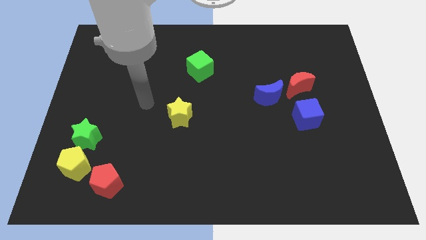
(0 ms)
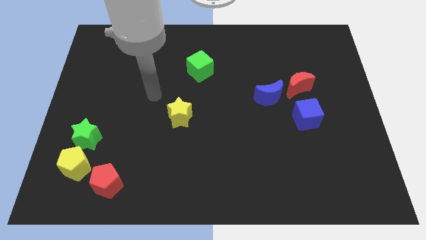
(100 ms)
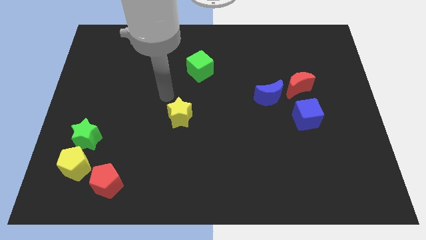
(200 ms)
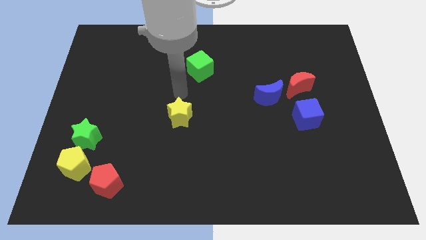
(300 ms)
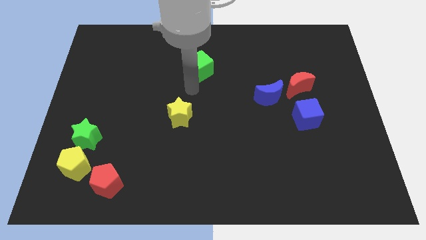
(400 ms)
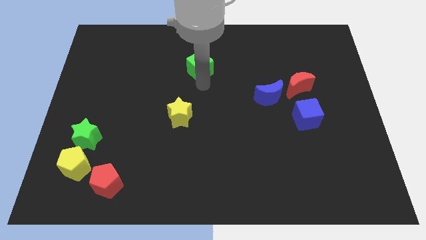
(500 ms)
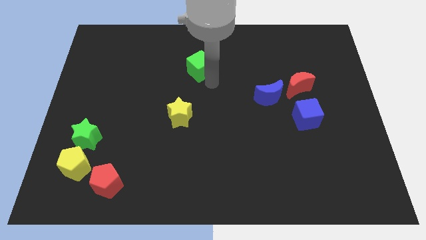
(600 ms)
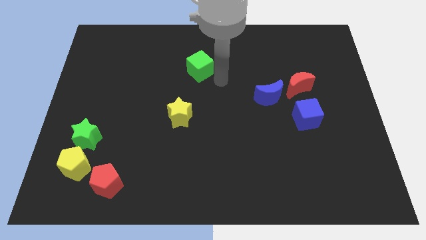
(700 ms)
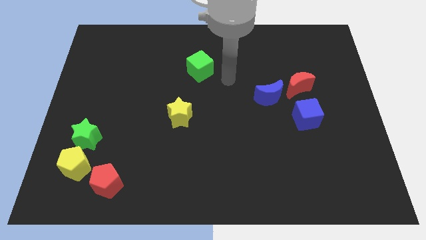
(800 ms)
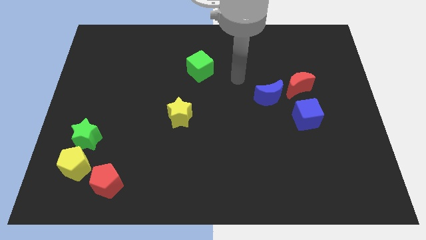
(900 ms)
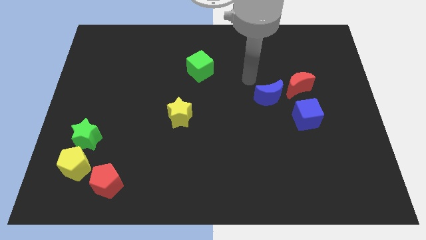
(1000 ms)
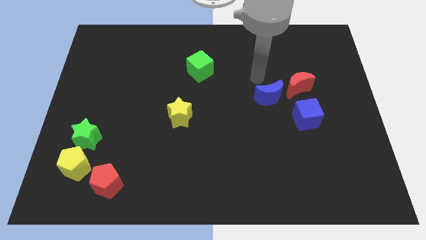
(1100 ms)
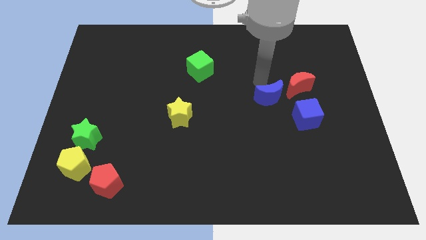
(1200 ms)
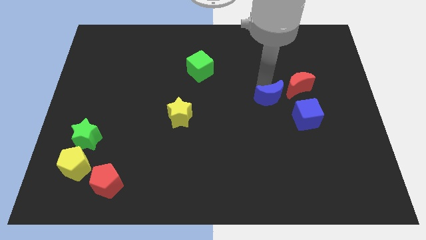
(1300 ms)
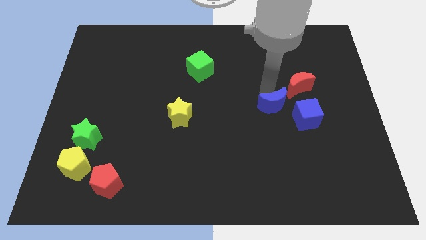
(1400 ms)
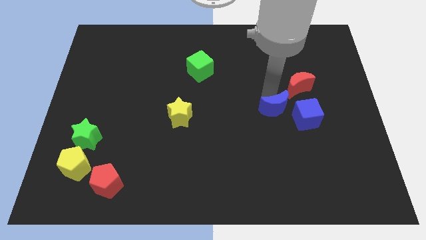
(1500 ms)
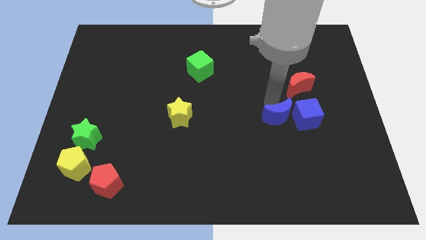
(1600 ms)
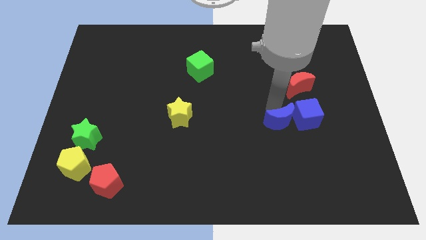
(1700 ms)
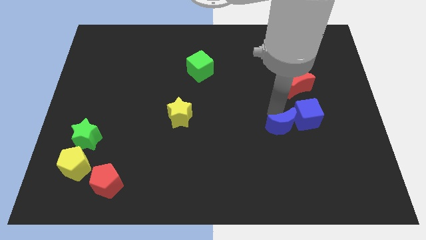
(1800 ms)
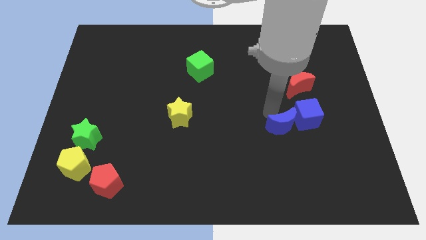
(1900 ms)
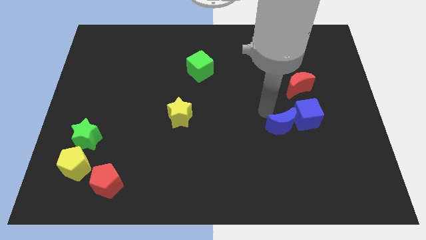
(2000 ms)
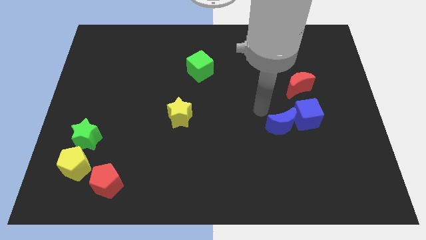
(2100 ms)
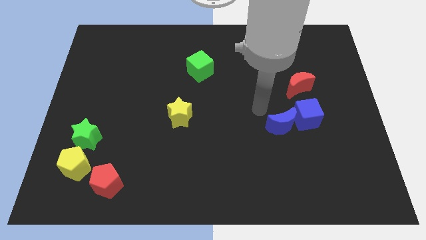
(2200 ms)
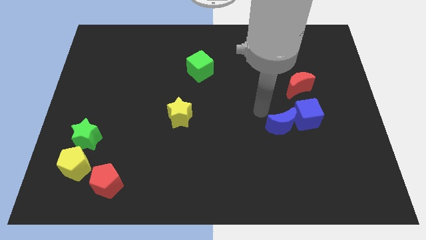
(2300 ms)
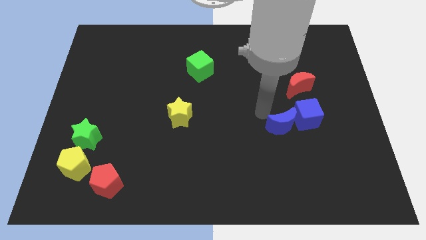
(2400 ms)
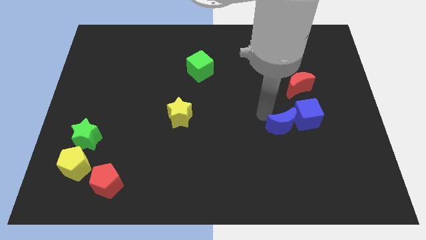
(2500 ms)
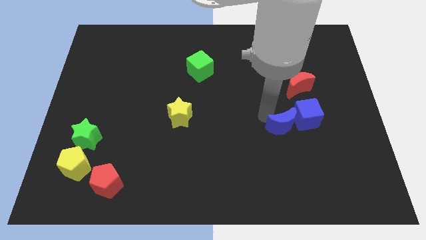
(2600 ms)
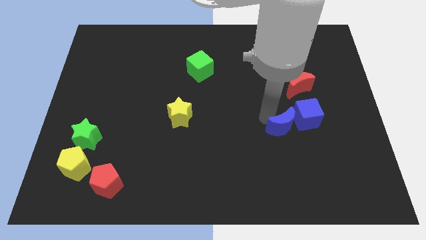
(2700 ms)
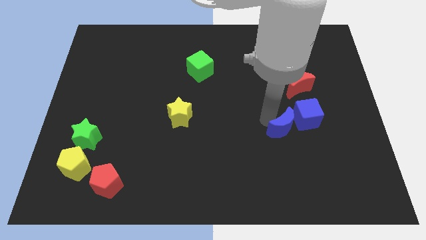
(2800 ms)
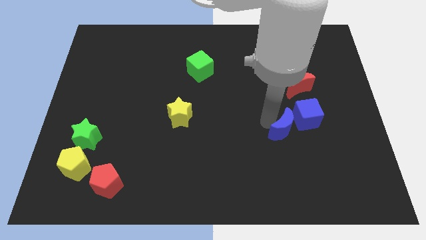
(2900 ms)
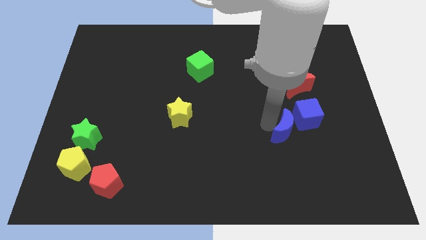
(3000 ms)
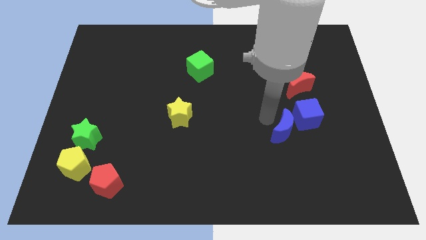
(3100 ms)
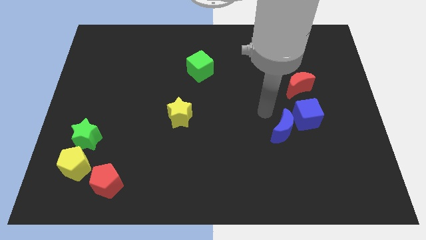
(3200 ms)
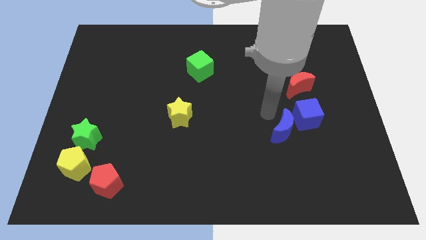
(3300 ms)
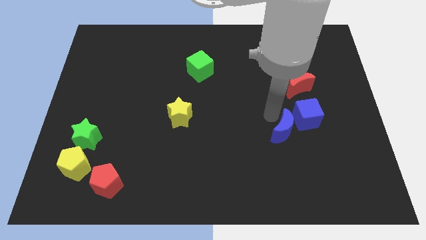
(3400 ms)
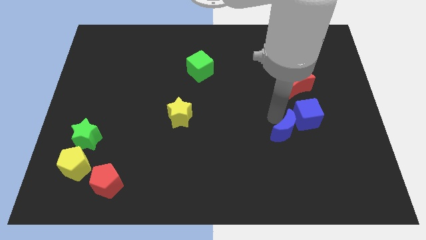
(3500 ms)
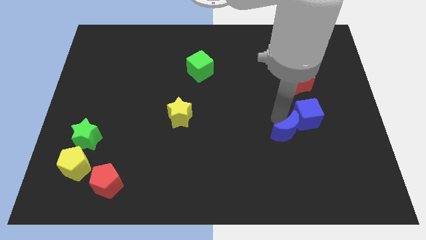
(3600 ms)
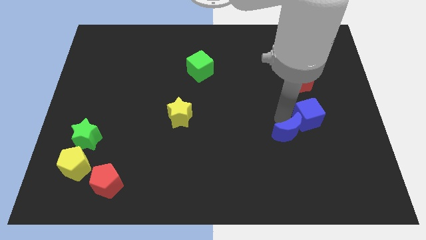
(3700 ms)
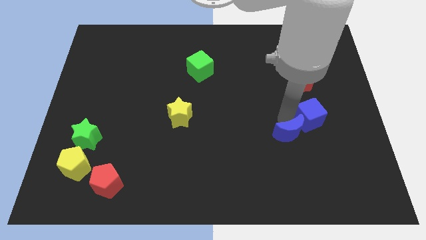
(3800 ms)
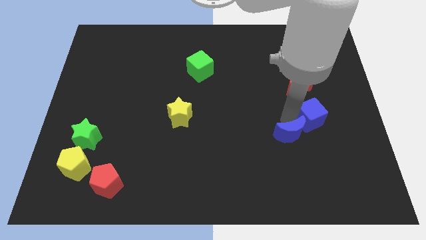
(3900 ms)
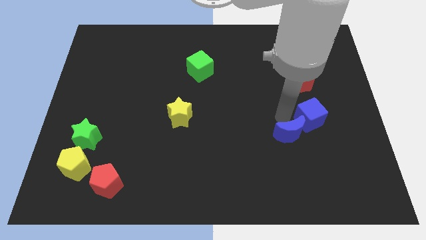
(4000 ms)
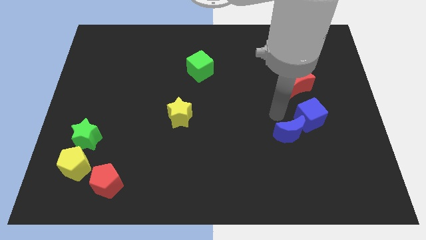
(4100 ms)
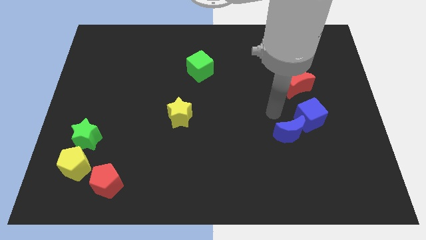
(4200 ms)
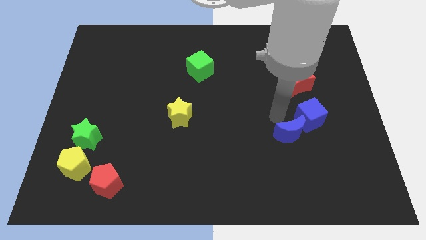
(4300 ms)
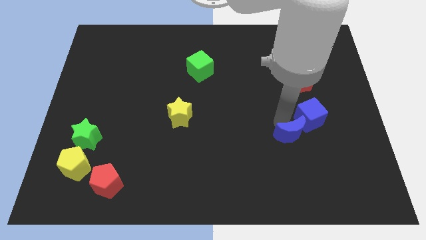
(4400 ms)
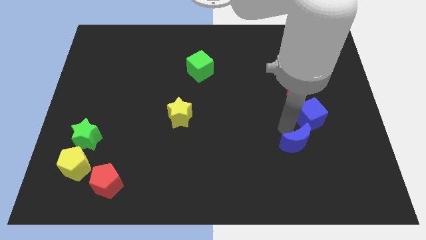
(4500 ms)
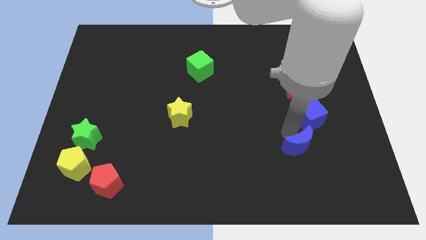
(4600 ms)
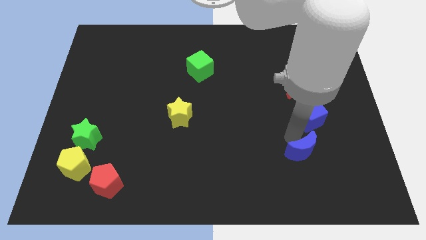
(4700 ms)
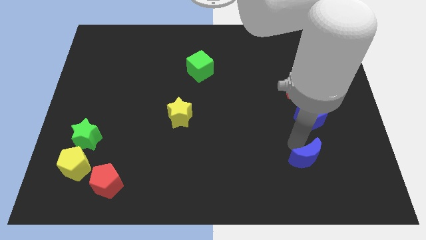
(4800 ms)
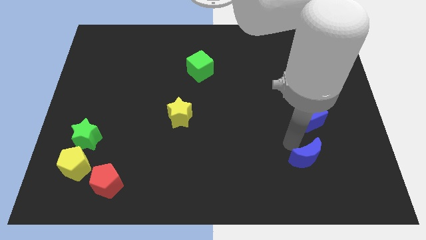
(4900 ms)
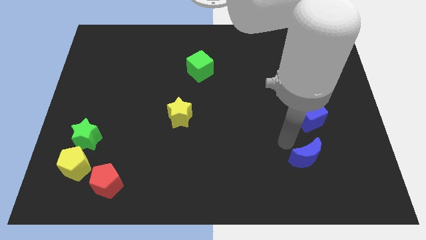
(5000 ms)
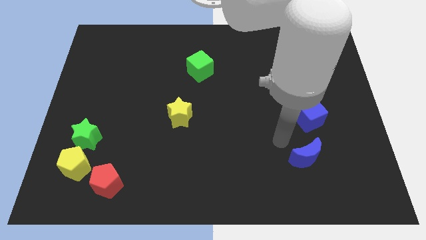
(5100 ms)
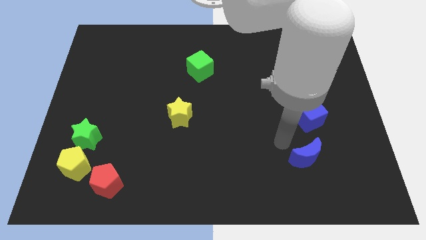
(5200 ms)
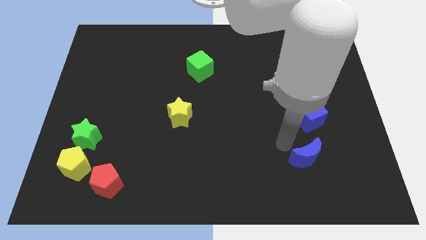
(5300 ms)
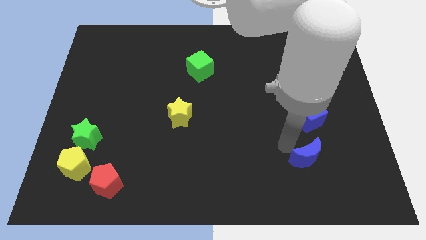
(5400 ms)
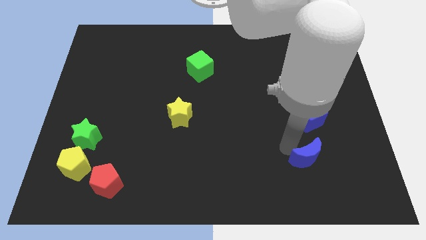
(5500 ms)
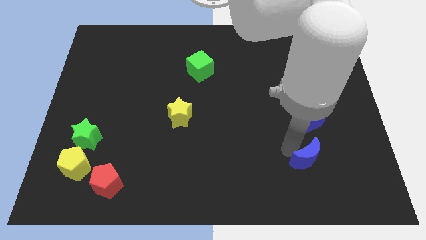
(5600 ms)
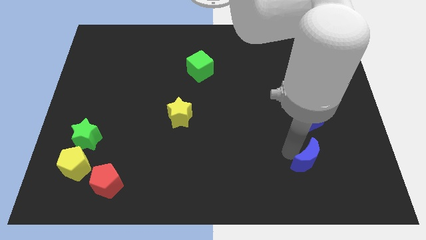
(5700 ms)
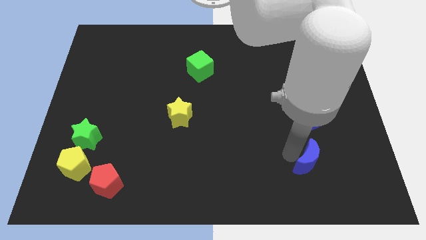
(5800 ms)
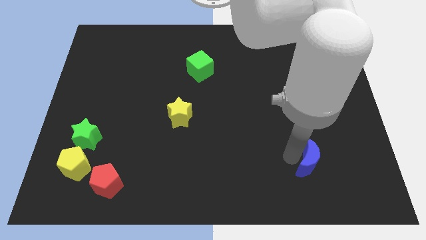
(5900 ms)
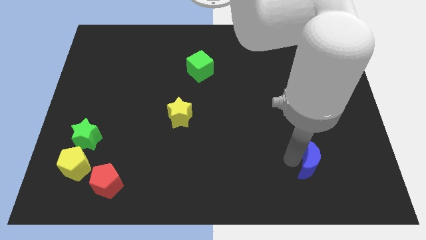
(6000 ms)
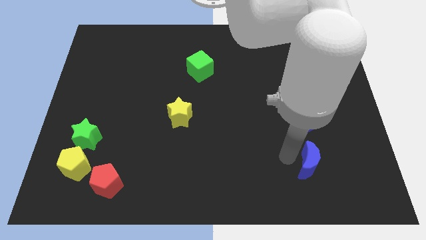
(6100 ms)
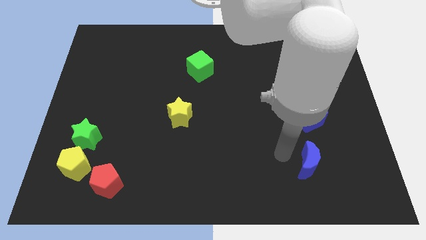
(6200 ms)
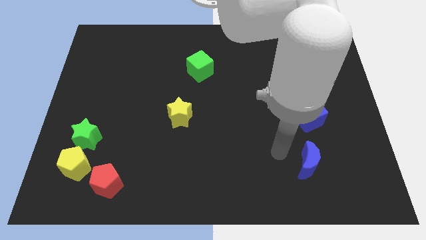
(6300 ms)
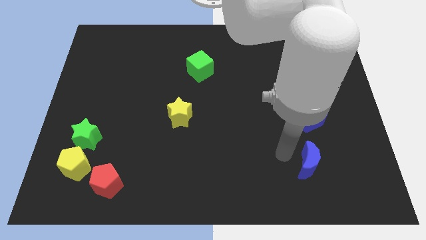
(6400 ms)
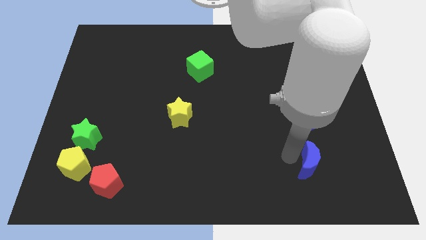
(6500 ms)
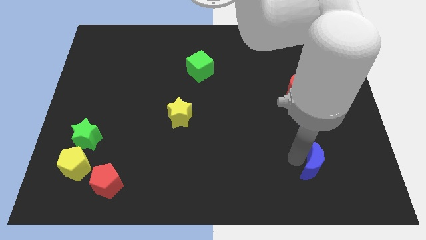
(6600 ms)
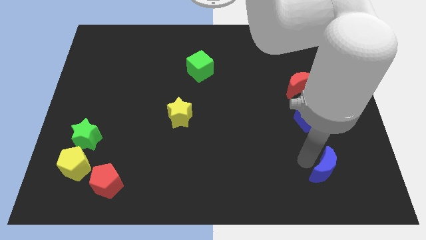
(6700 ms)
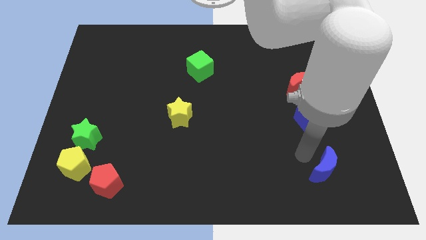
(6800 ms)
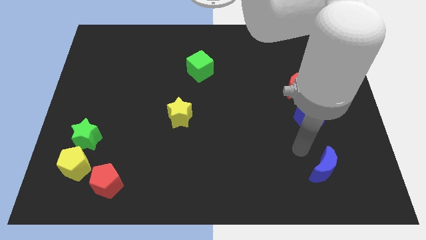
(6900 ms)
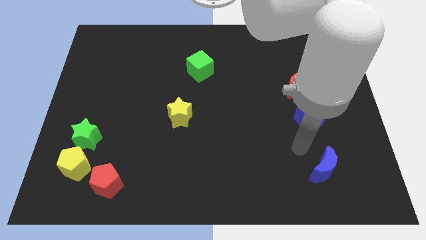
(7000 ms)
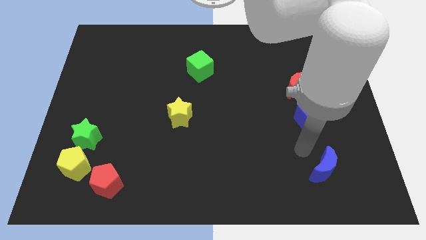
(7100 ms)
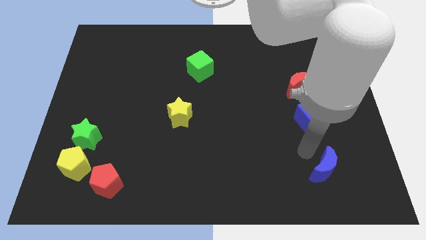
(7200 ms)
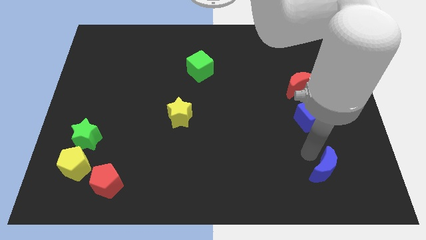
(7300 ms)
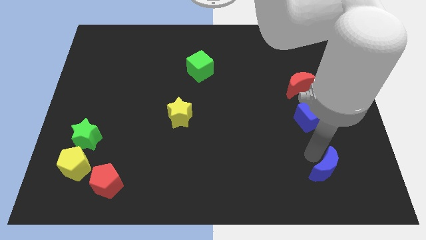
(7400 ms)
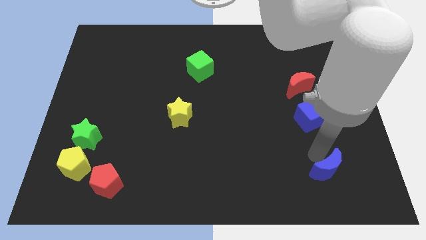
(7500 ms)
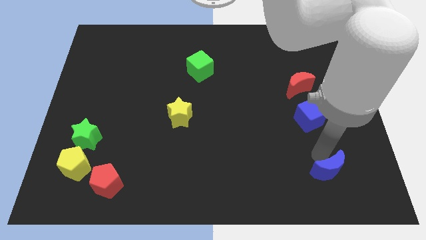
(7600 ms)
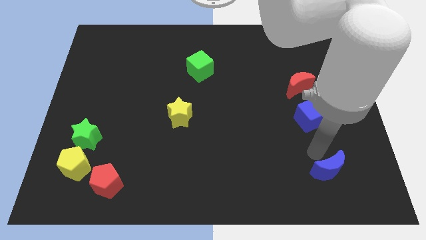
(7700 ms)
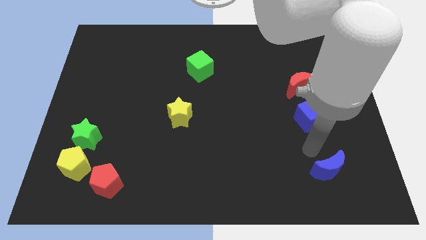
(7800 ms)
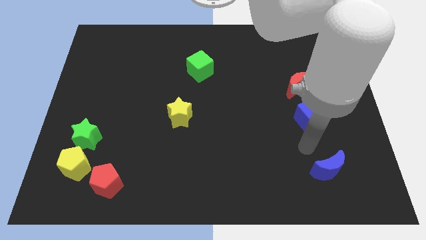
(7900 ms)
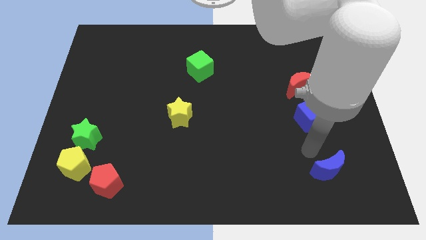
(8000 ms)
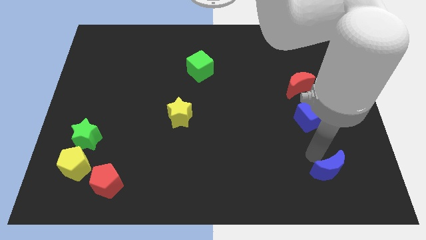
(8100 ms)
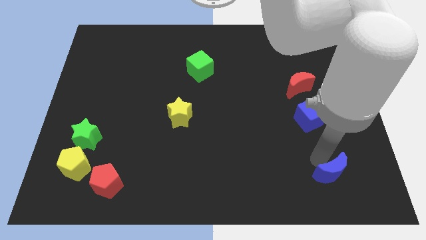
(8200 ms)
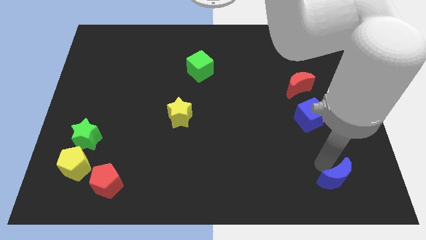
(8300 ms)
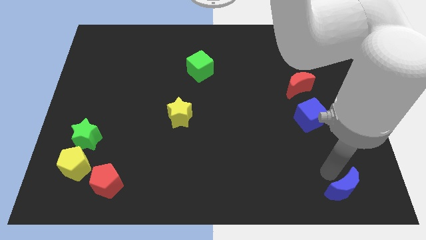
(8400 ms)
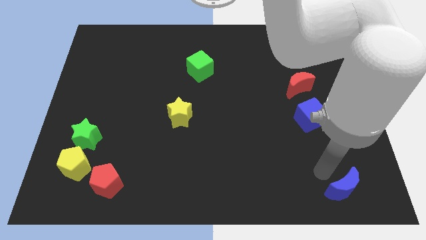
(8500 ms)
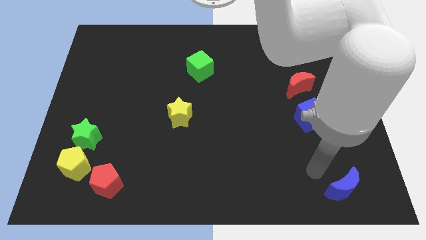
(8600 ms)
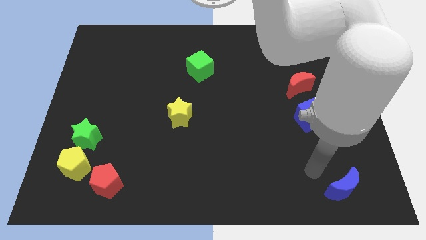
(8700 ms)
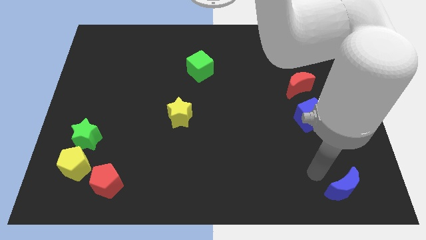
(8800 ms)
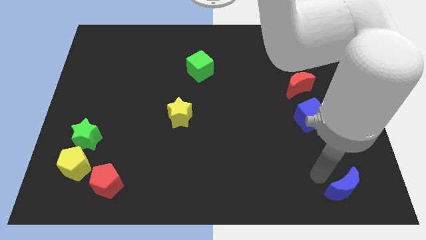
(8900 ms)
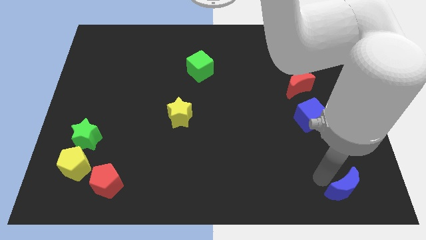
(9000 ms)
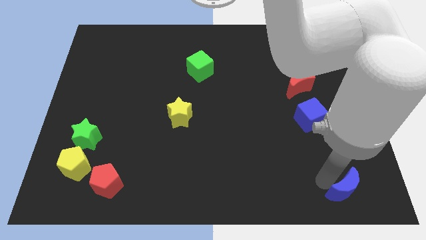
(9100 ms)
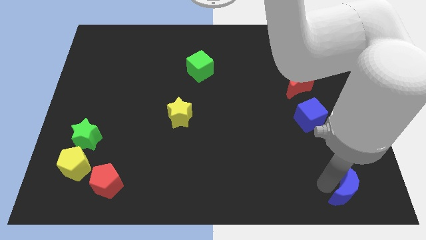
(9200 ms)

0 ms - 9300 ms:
push the blue moon to the bottom right of the board
